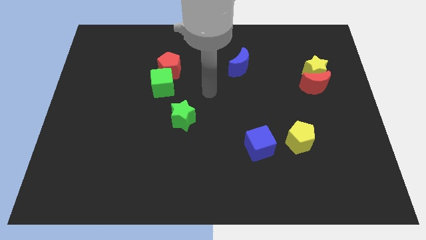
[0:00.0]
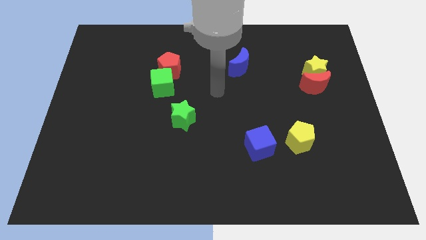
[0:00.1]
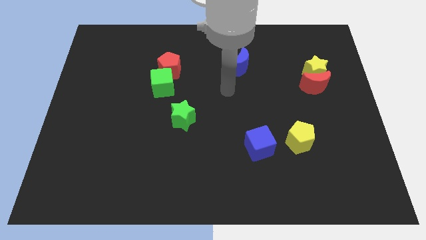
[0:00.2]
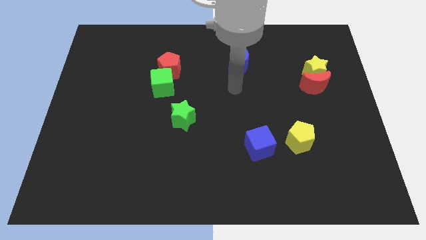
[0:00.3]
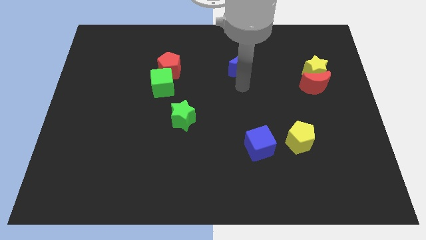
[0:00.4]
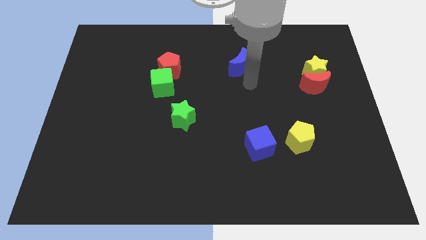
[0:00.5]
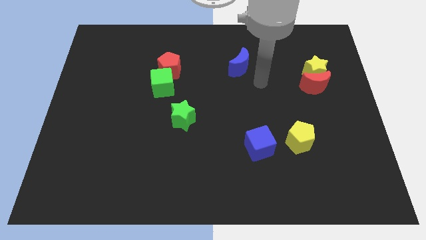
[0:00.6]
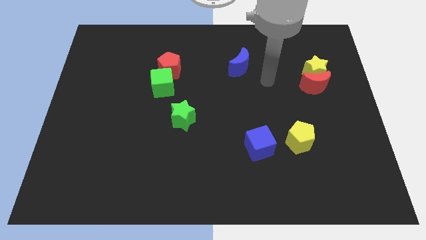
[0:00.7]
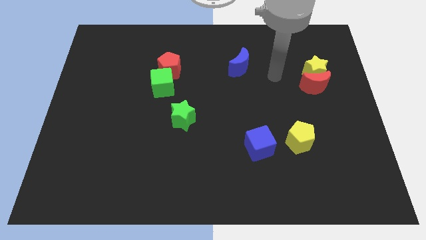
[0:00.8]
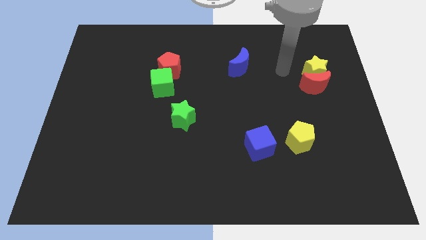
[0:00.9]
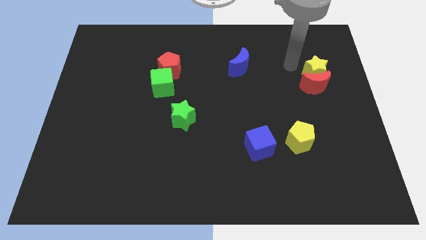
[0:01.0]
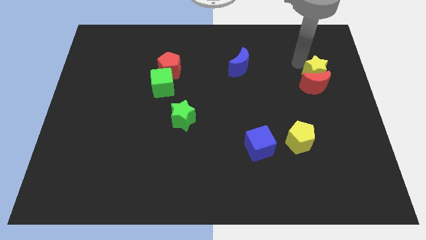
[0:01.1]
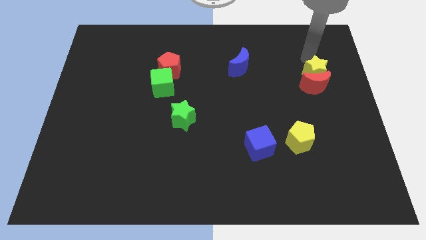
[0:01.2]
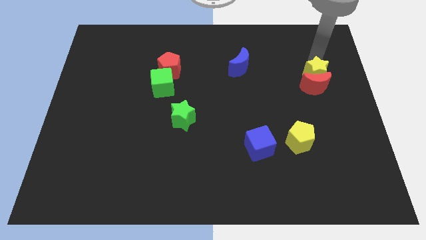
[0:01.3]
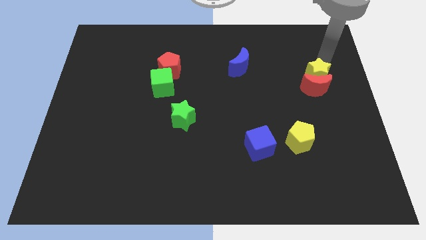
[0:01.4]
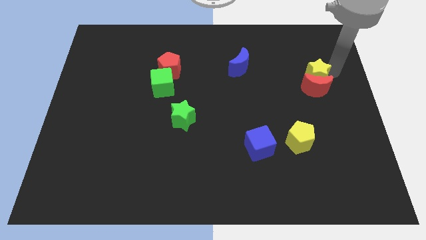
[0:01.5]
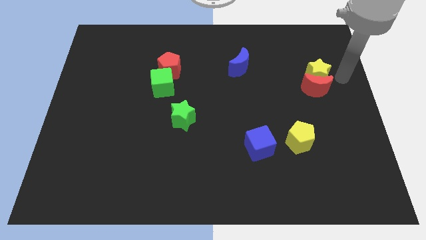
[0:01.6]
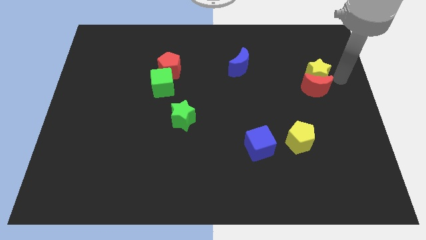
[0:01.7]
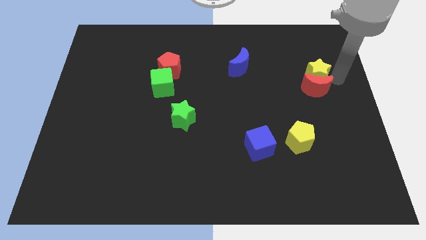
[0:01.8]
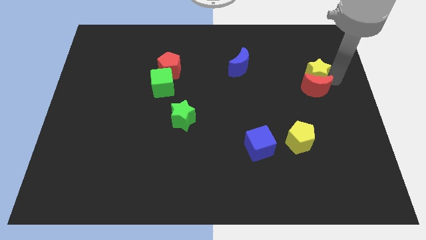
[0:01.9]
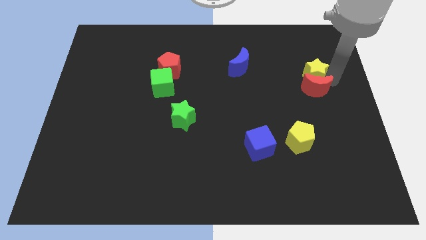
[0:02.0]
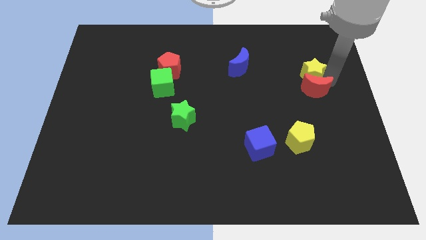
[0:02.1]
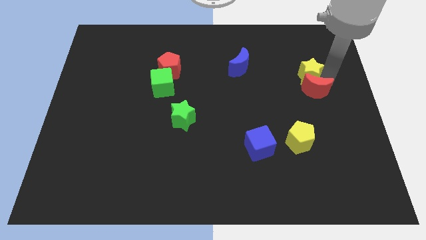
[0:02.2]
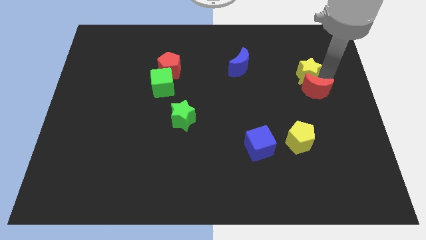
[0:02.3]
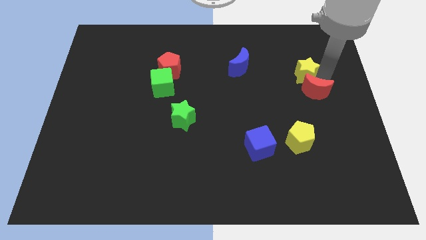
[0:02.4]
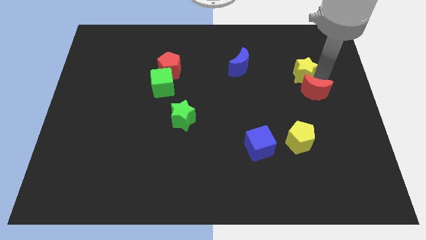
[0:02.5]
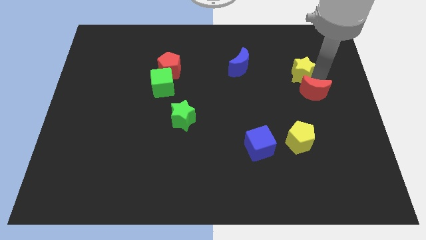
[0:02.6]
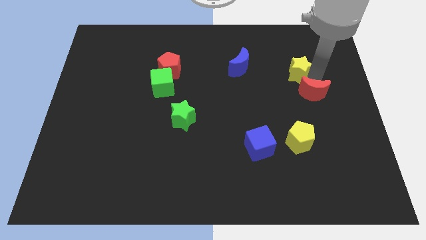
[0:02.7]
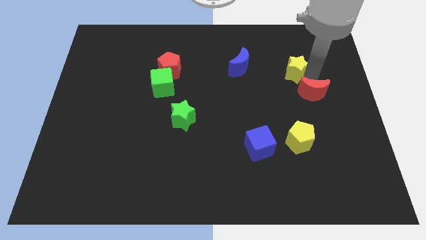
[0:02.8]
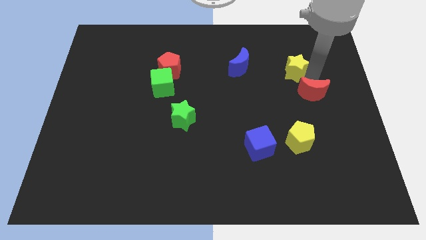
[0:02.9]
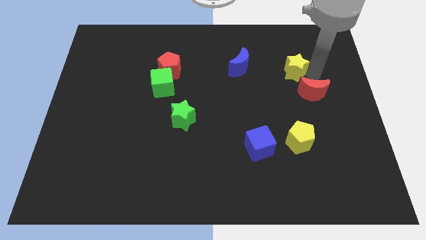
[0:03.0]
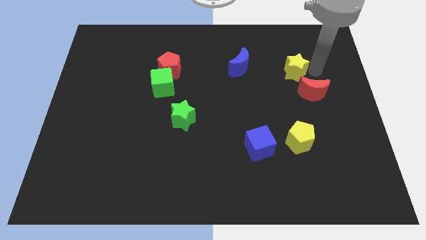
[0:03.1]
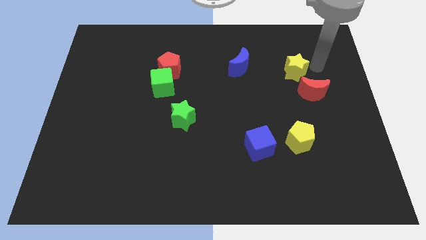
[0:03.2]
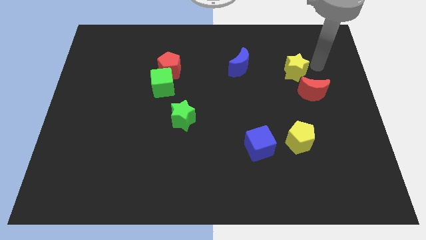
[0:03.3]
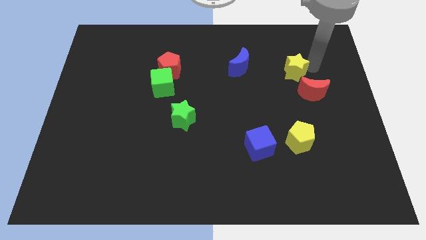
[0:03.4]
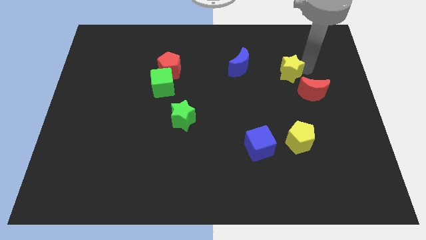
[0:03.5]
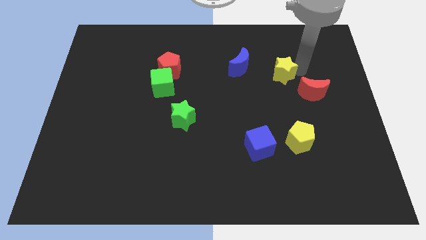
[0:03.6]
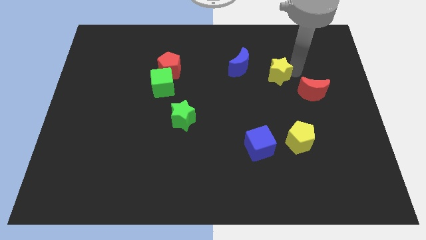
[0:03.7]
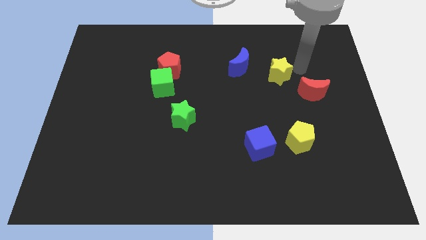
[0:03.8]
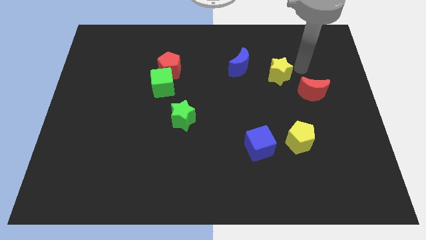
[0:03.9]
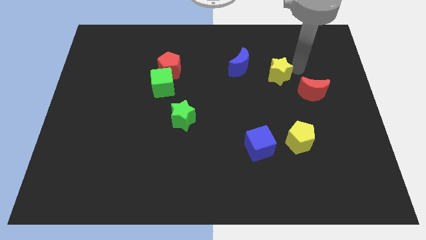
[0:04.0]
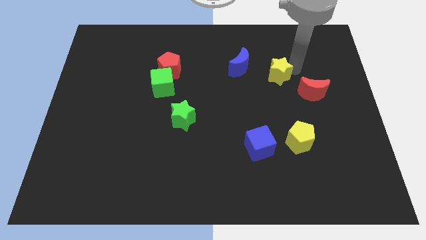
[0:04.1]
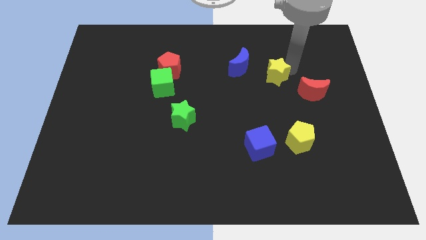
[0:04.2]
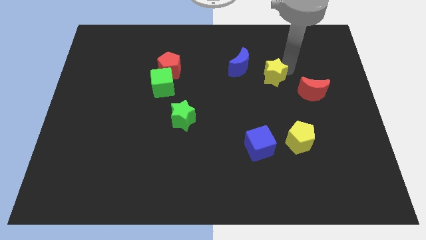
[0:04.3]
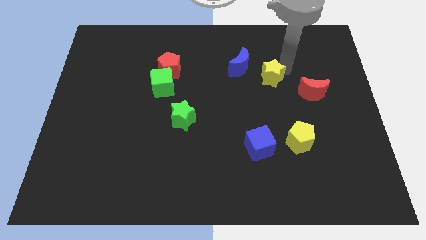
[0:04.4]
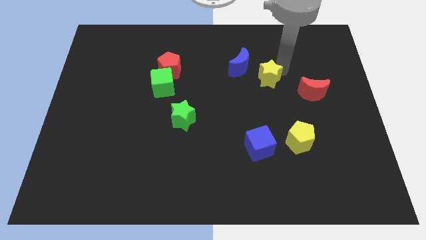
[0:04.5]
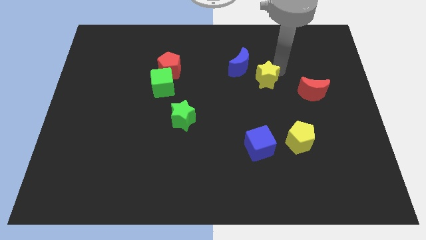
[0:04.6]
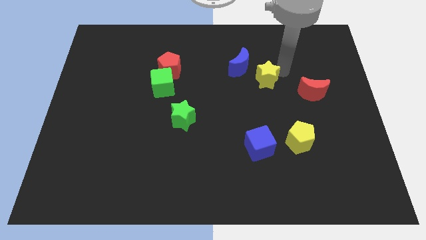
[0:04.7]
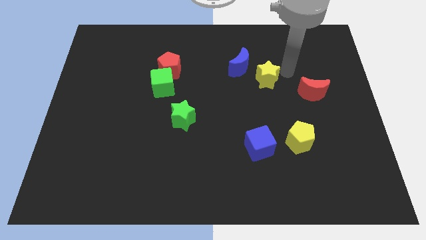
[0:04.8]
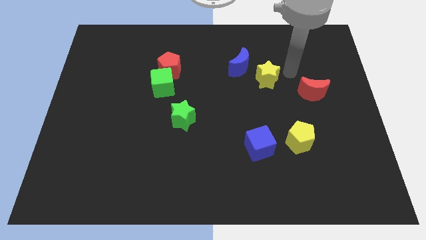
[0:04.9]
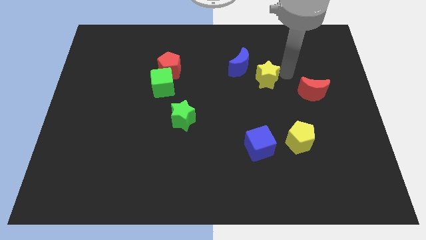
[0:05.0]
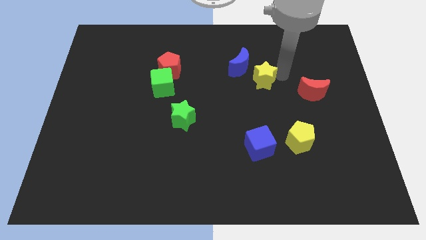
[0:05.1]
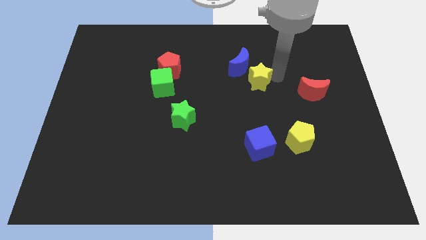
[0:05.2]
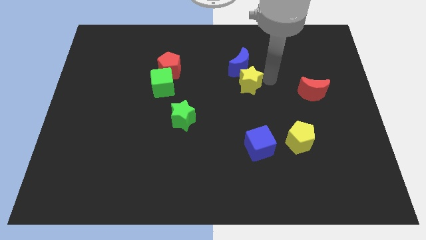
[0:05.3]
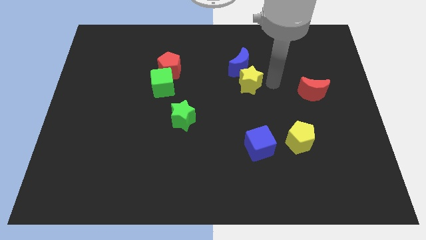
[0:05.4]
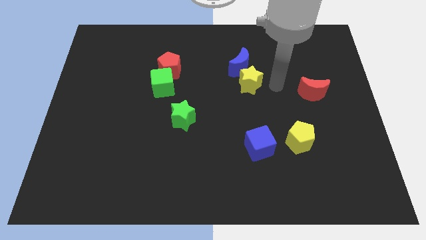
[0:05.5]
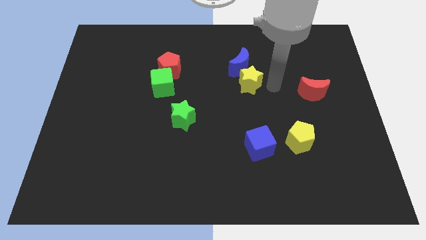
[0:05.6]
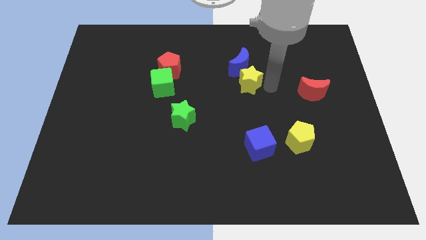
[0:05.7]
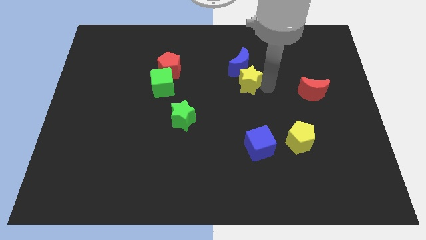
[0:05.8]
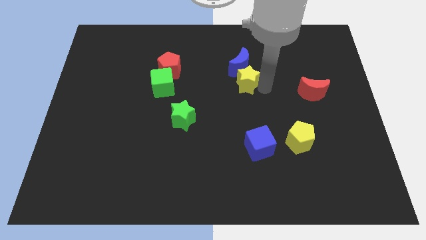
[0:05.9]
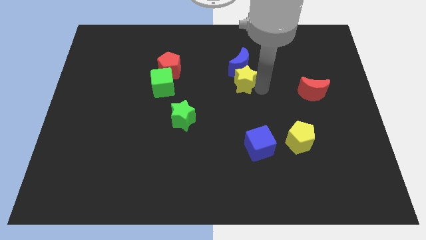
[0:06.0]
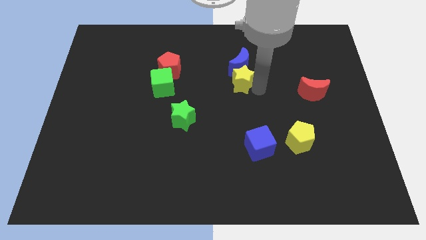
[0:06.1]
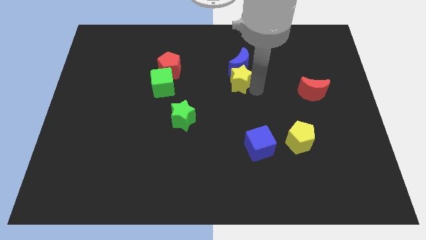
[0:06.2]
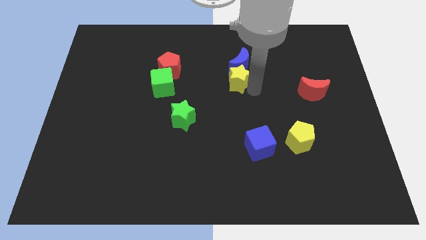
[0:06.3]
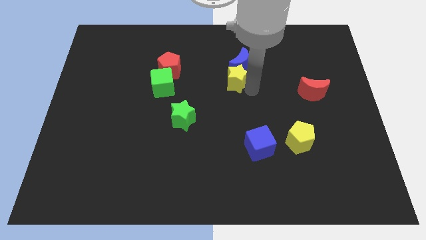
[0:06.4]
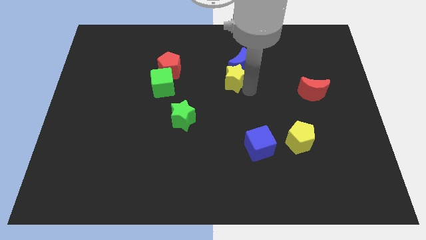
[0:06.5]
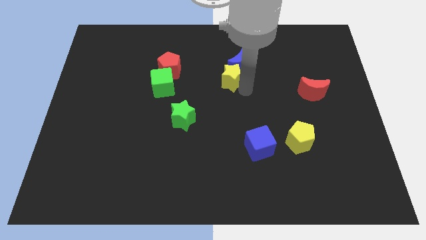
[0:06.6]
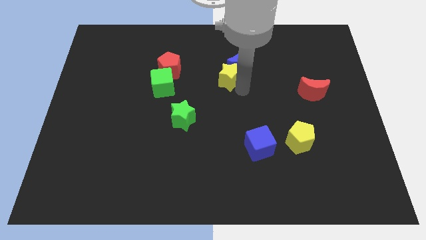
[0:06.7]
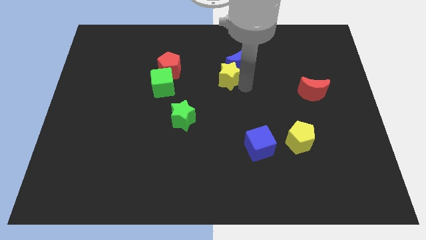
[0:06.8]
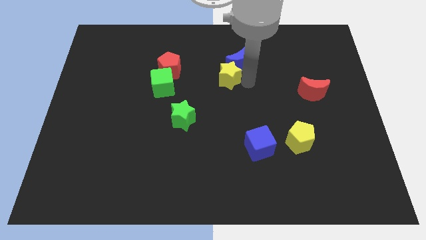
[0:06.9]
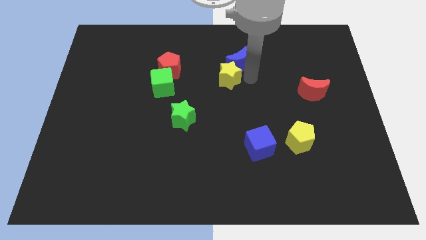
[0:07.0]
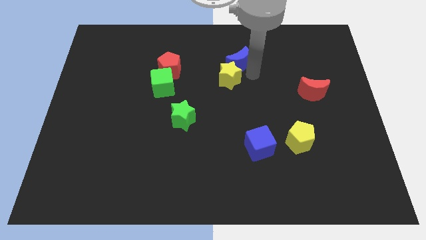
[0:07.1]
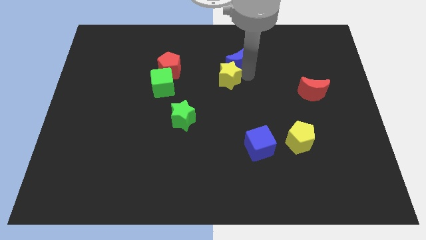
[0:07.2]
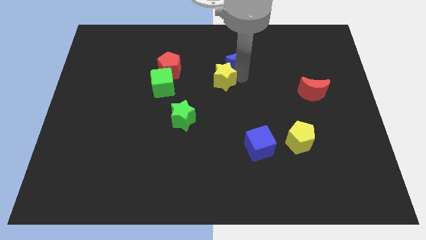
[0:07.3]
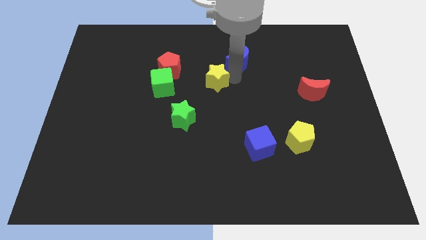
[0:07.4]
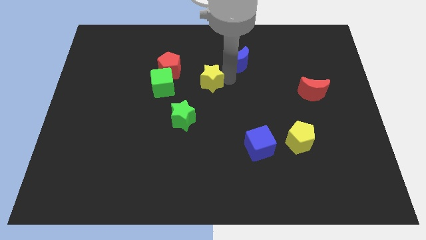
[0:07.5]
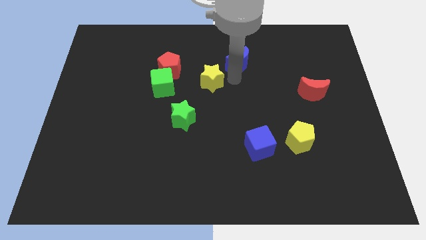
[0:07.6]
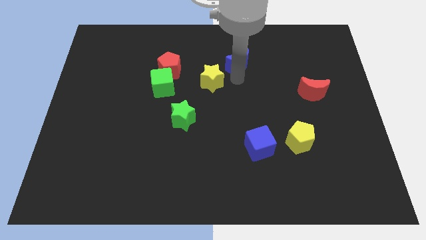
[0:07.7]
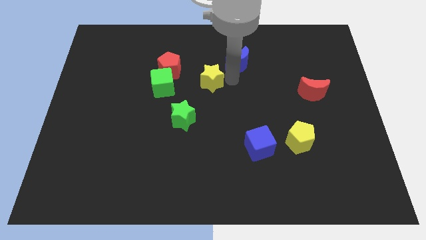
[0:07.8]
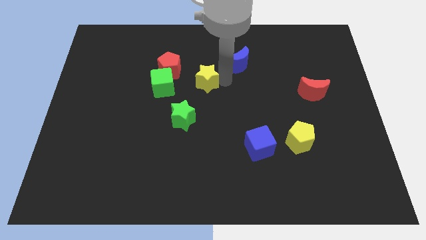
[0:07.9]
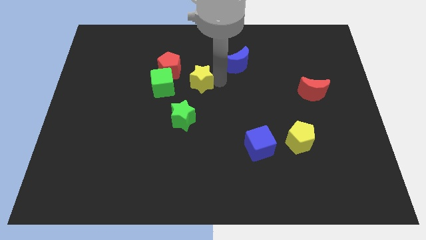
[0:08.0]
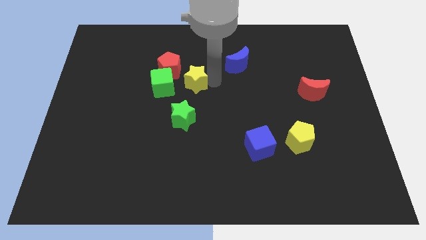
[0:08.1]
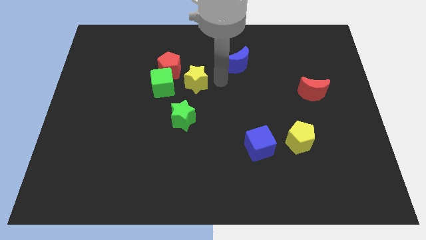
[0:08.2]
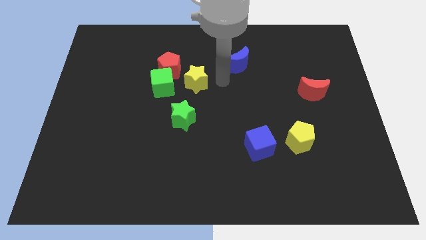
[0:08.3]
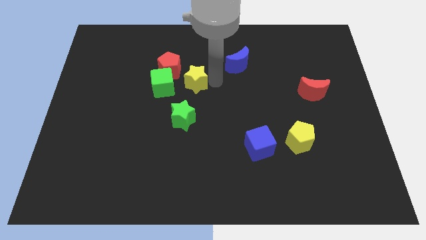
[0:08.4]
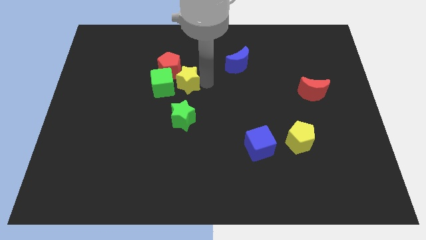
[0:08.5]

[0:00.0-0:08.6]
push the yellow star next to the green cube
